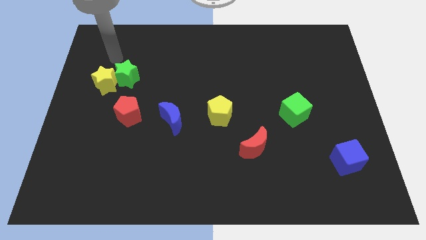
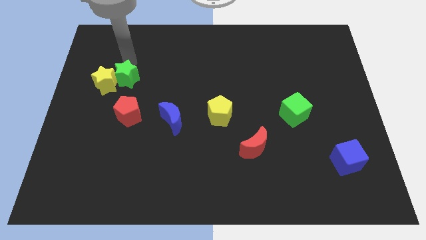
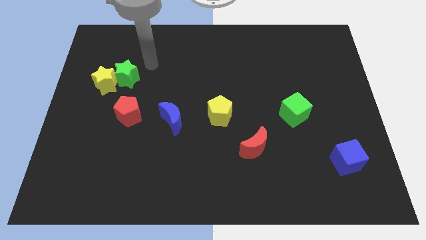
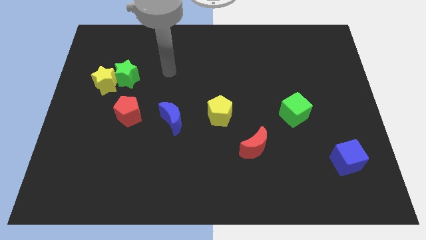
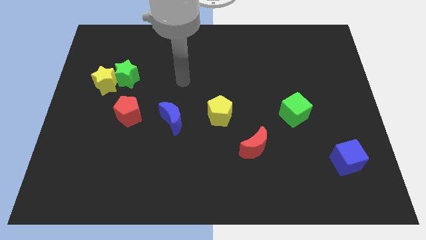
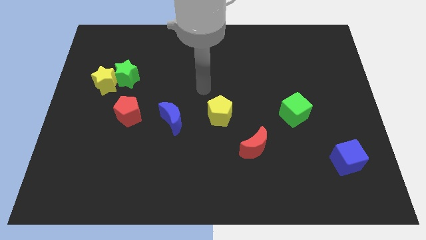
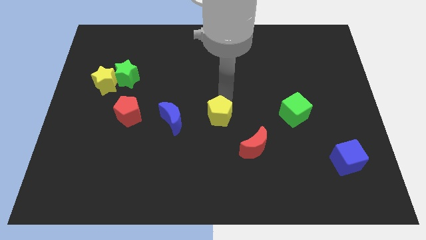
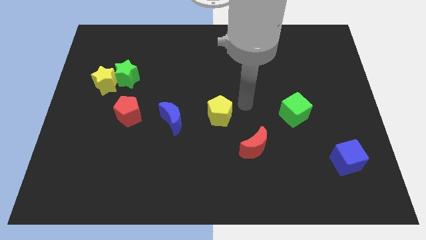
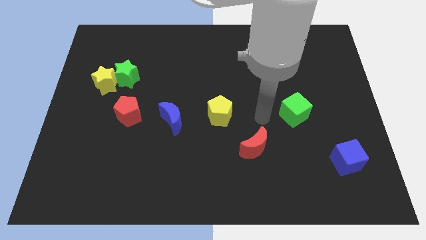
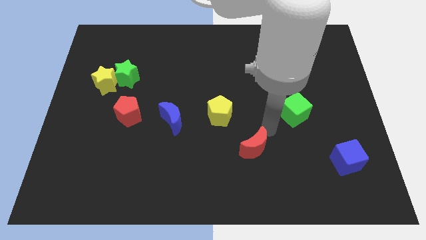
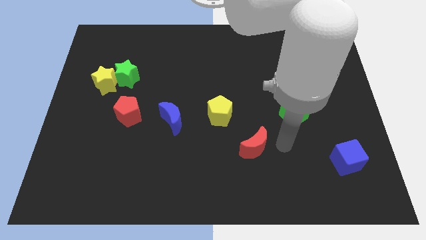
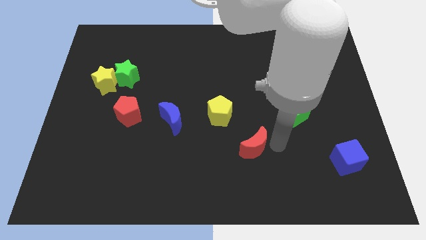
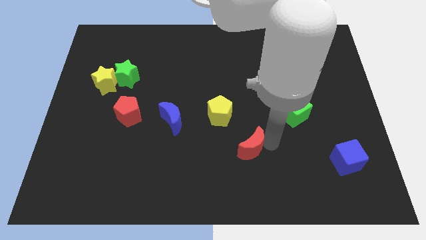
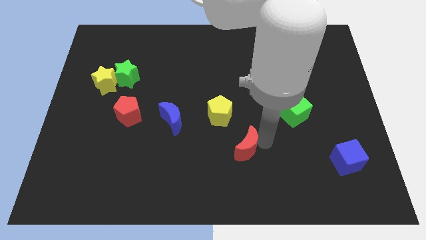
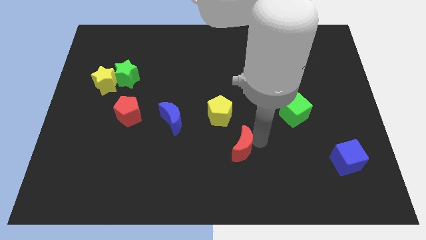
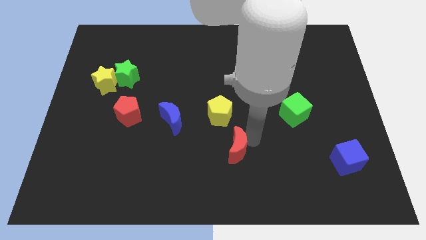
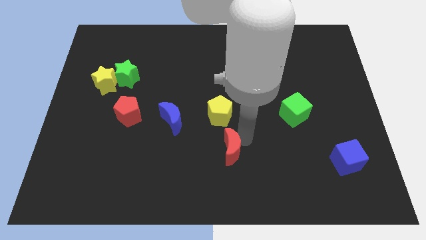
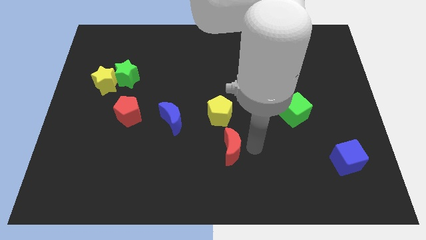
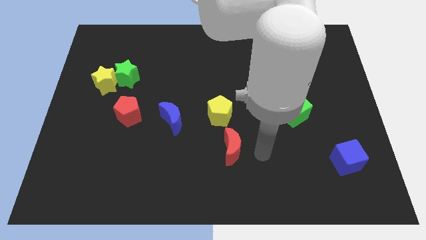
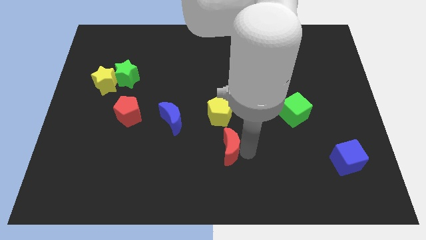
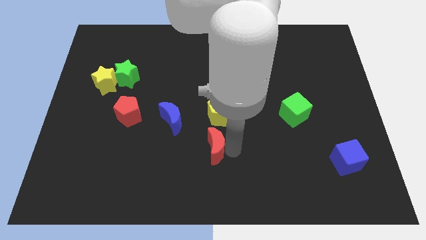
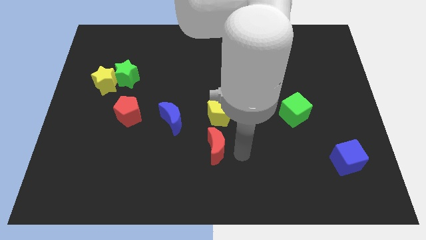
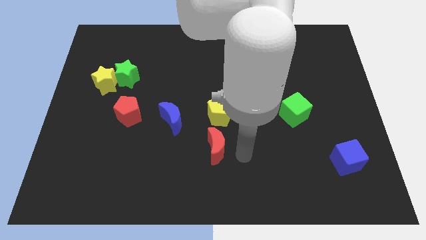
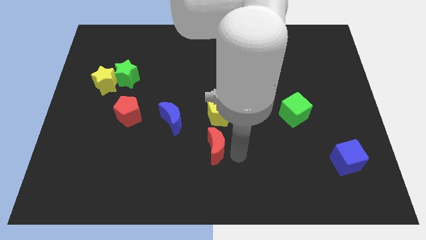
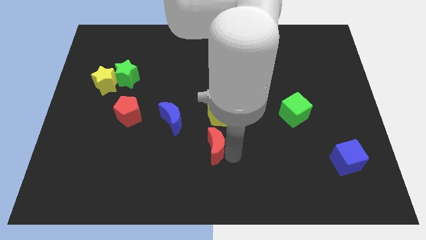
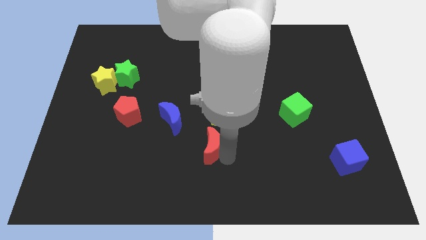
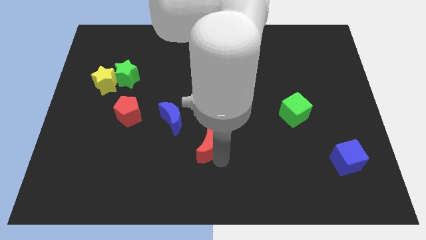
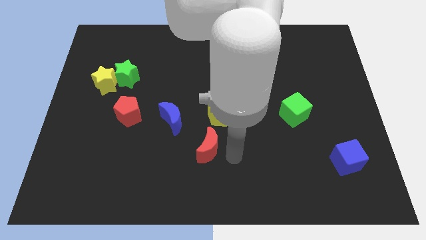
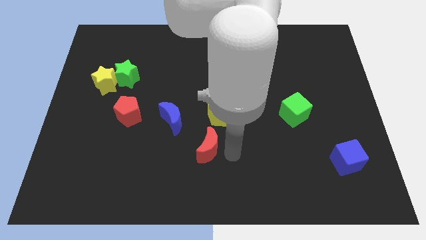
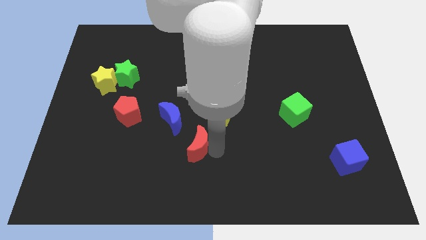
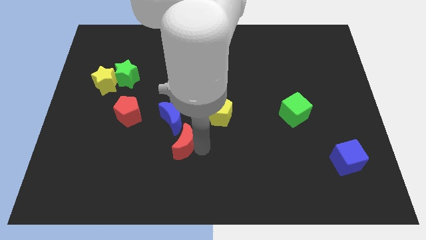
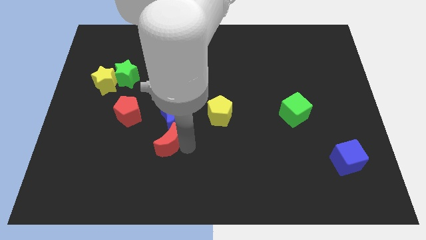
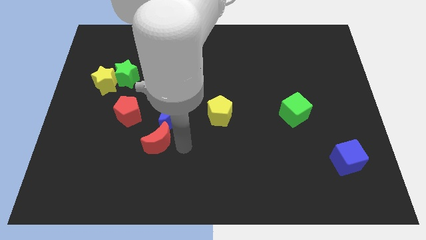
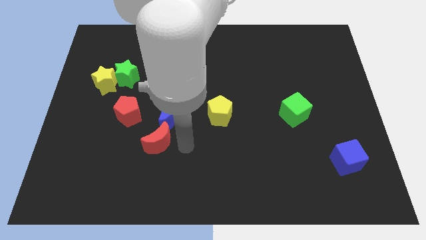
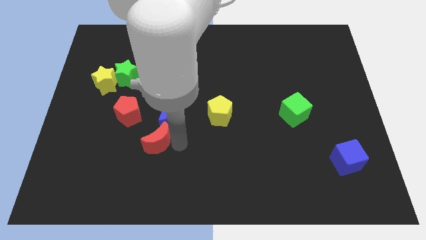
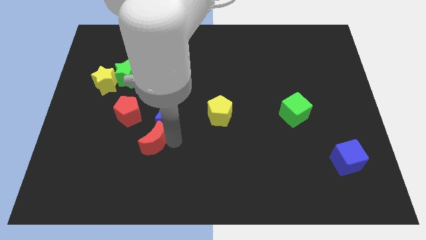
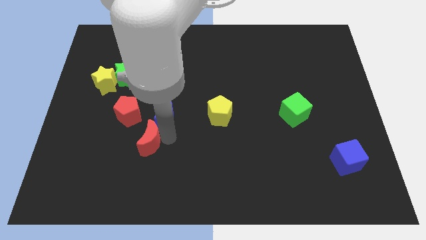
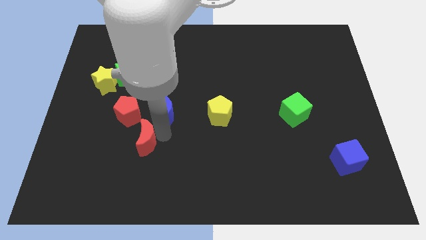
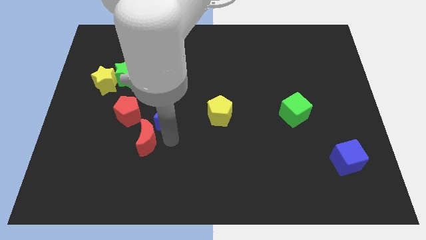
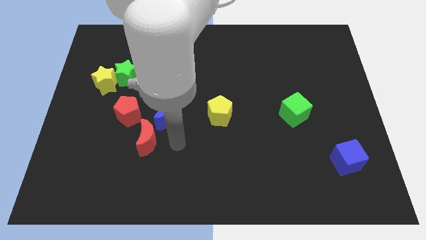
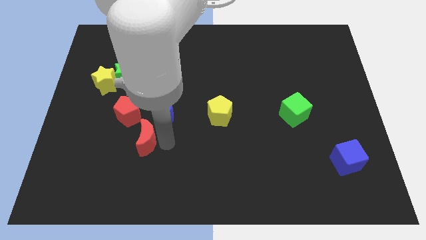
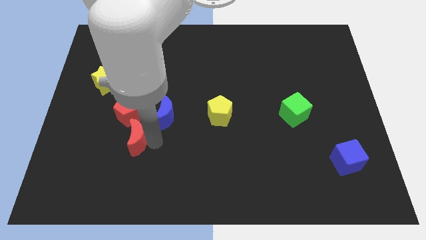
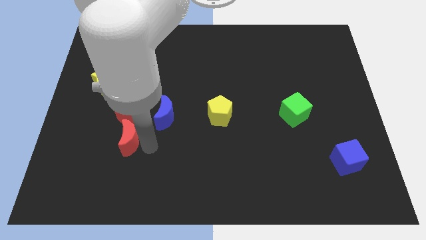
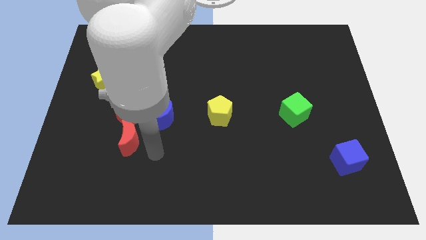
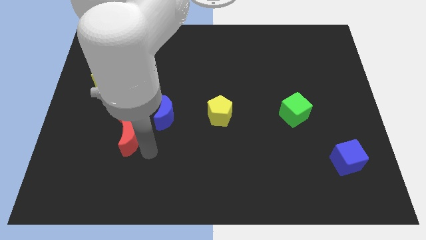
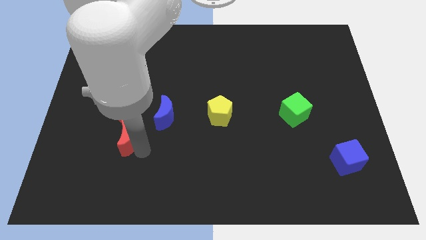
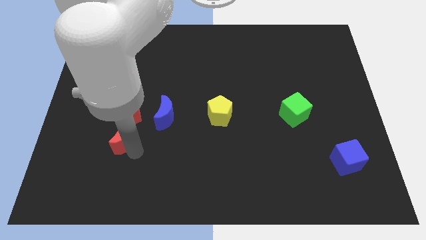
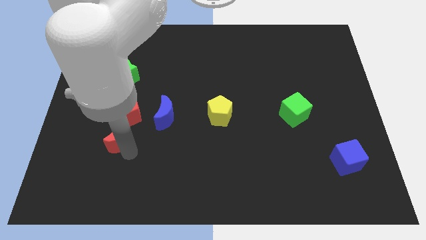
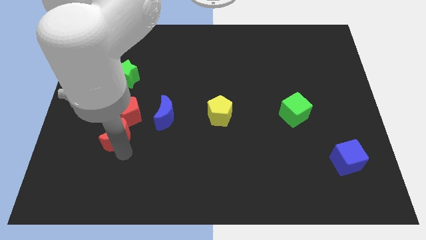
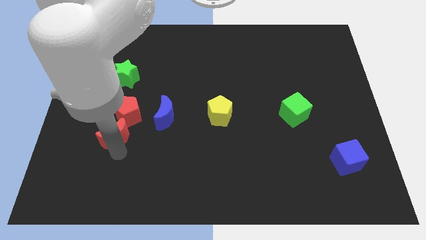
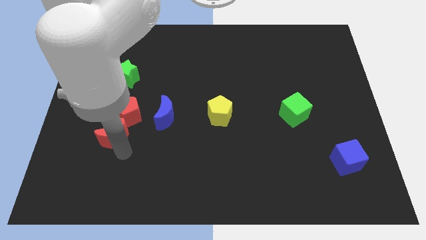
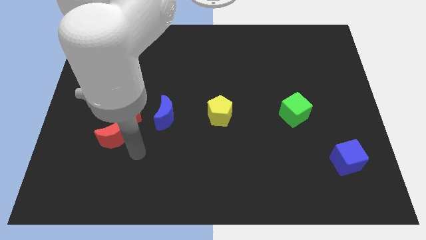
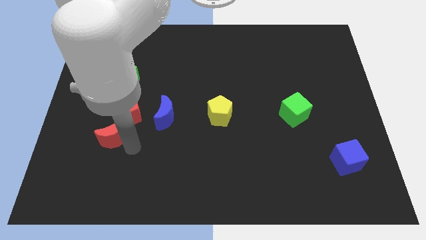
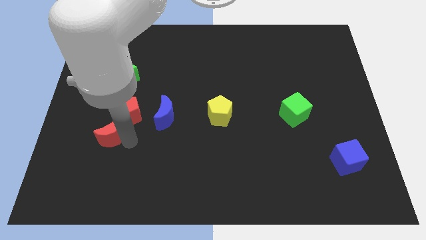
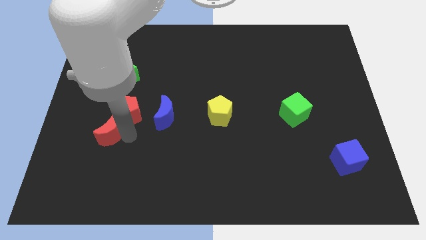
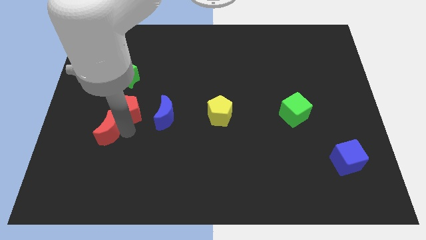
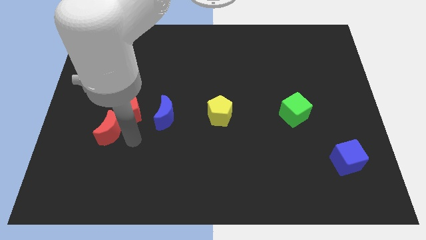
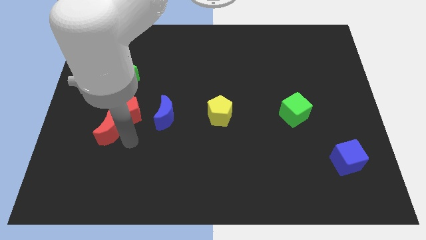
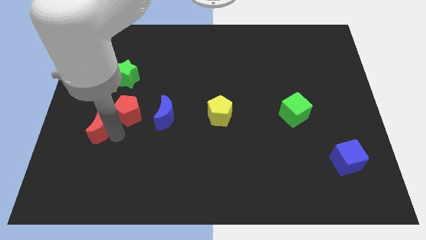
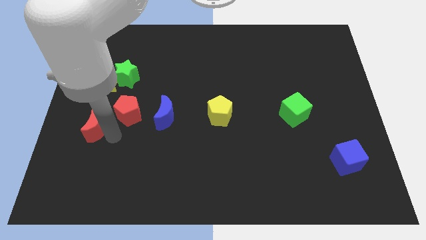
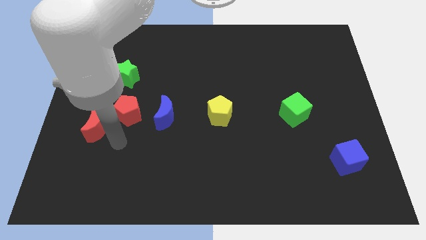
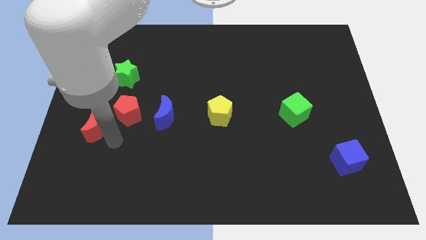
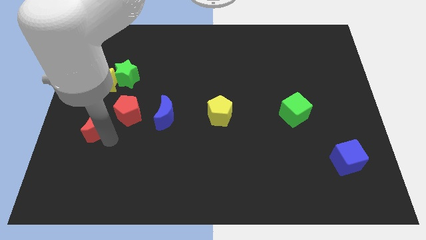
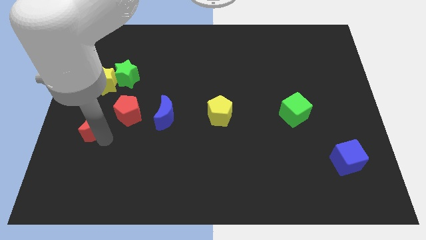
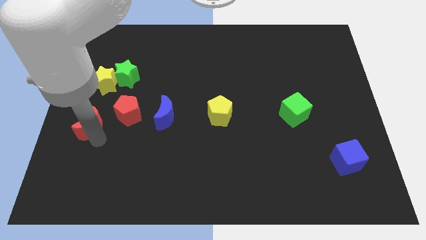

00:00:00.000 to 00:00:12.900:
move the red moon to the center left
